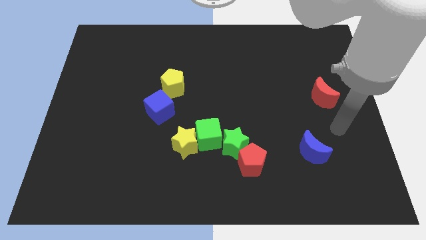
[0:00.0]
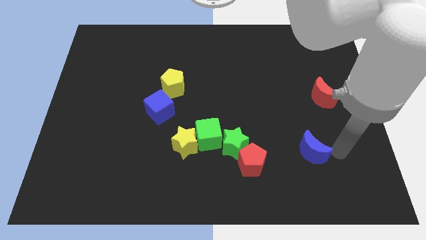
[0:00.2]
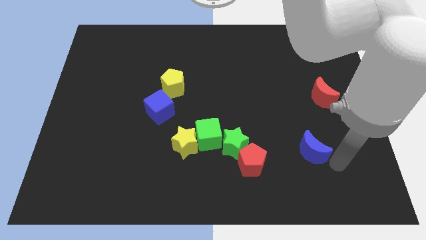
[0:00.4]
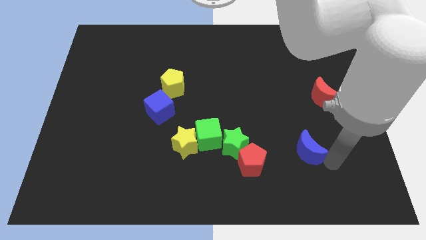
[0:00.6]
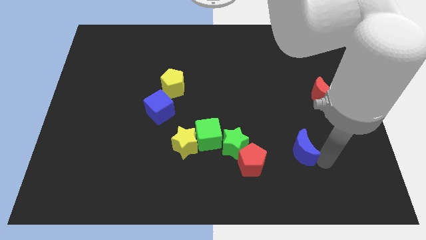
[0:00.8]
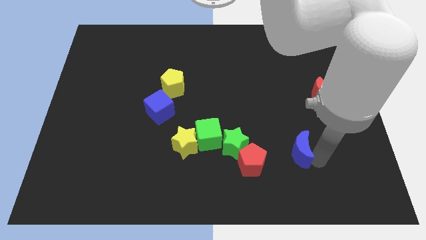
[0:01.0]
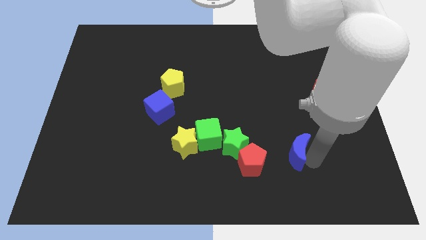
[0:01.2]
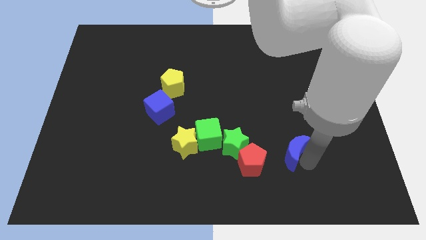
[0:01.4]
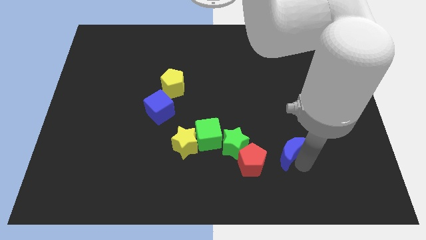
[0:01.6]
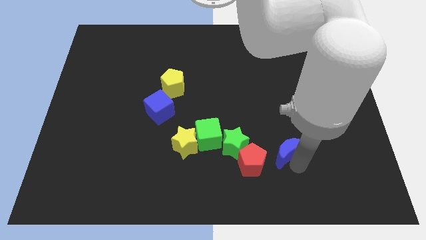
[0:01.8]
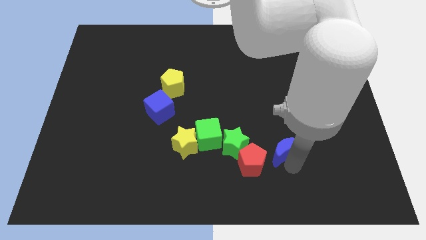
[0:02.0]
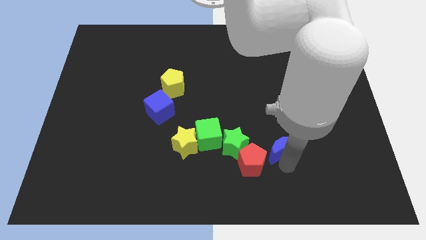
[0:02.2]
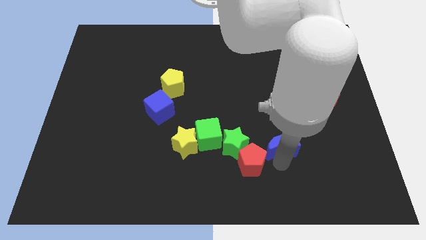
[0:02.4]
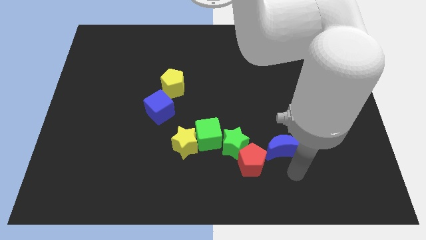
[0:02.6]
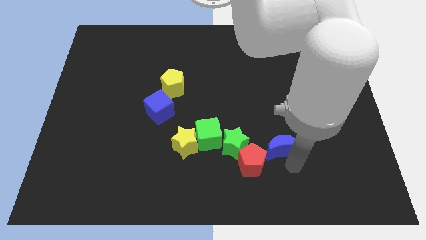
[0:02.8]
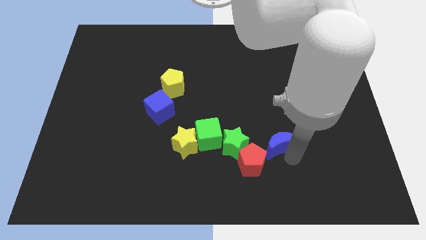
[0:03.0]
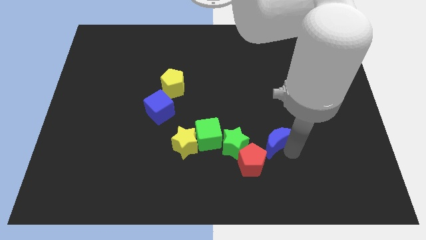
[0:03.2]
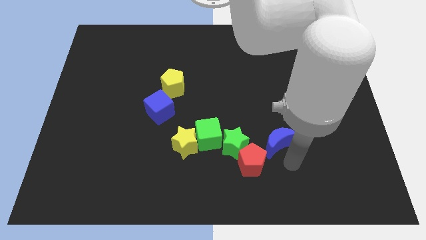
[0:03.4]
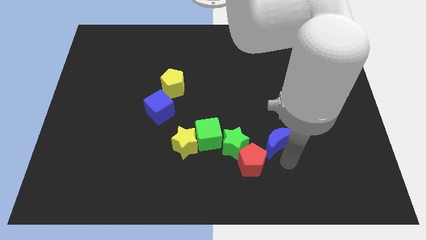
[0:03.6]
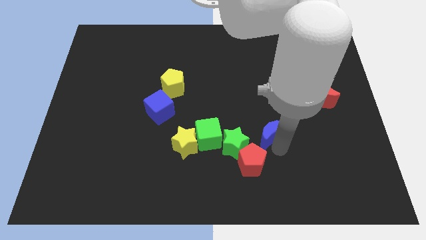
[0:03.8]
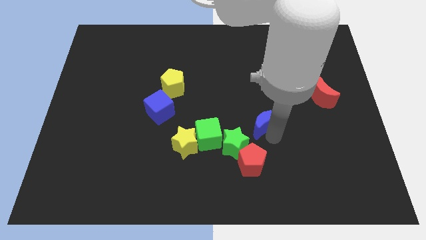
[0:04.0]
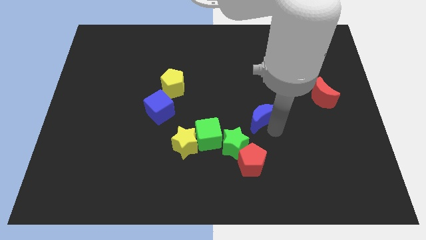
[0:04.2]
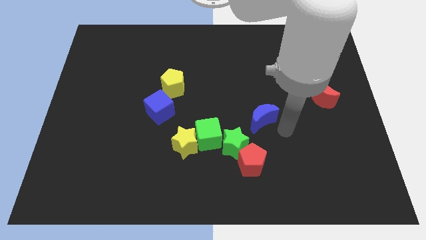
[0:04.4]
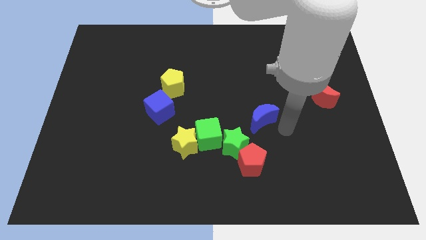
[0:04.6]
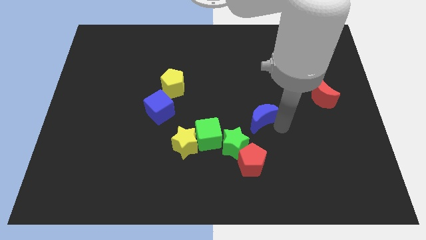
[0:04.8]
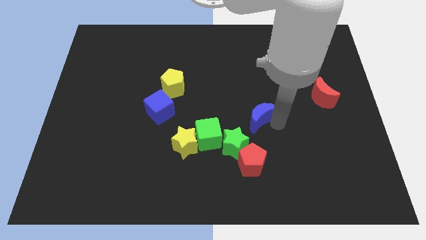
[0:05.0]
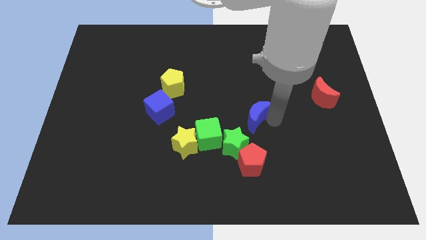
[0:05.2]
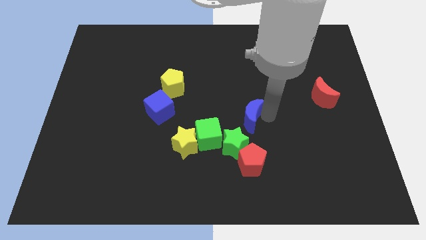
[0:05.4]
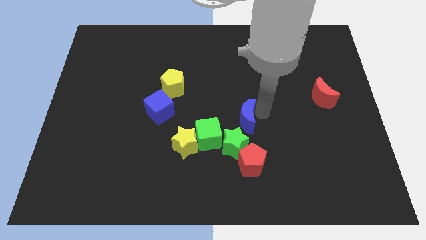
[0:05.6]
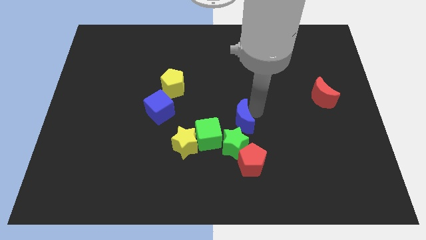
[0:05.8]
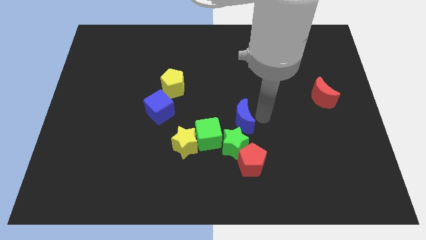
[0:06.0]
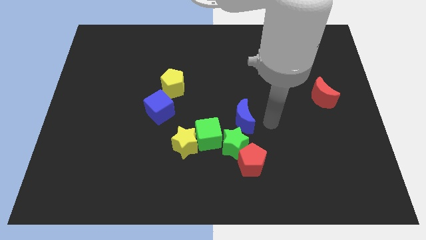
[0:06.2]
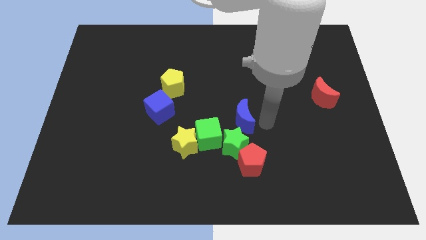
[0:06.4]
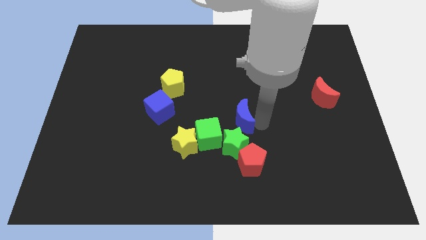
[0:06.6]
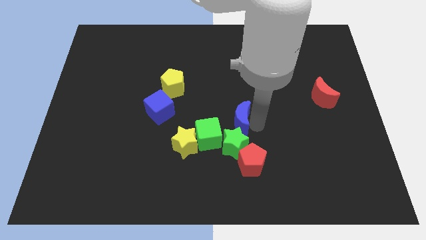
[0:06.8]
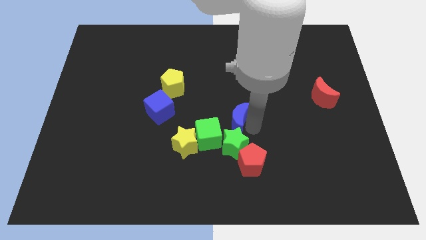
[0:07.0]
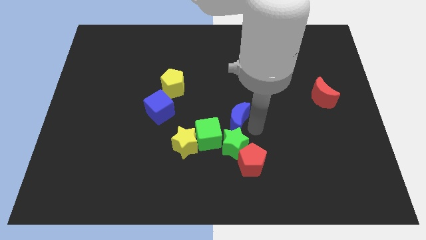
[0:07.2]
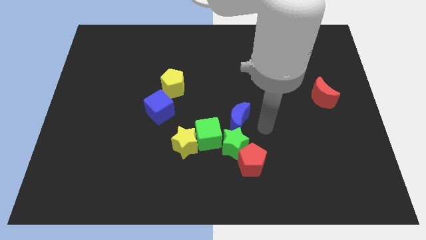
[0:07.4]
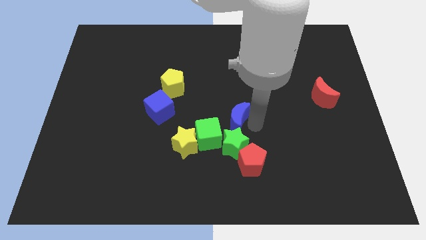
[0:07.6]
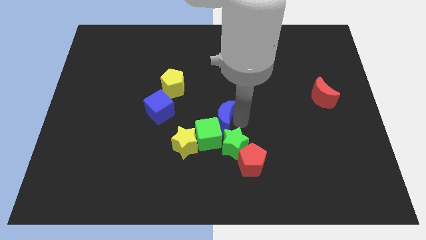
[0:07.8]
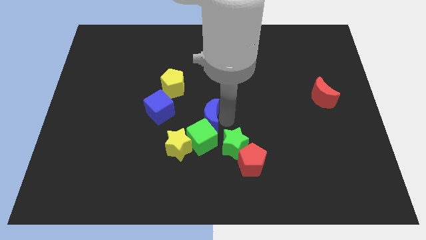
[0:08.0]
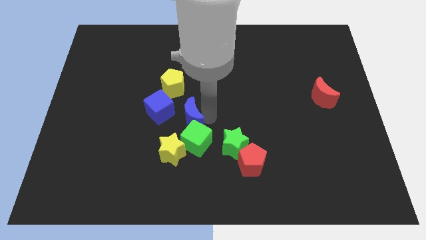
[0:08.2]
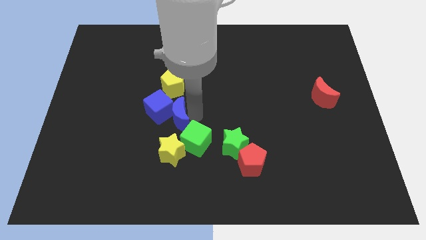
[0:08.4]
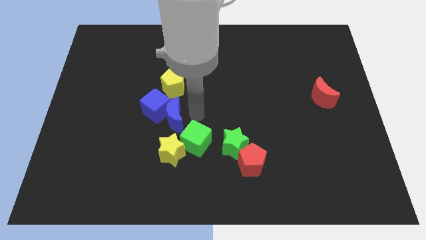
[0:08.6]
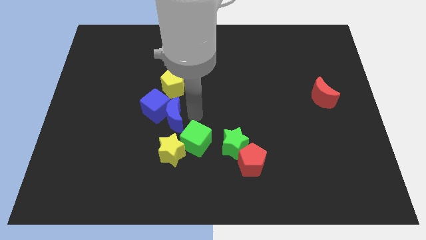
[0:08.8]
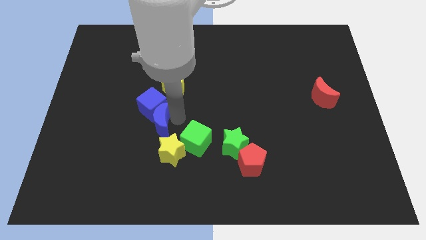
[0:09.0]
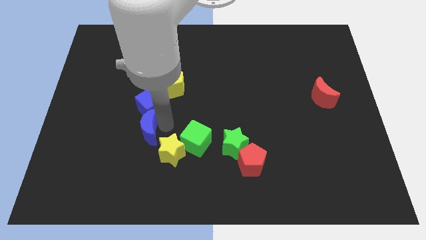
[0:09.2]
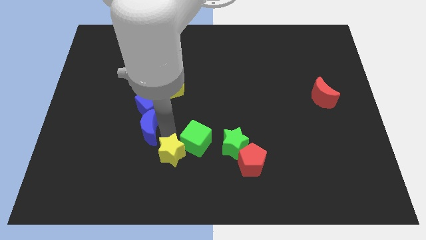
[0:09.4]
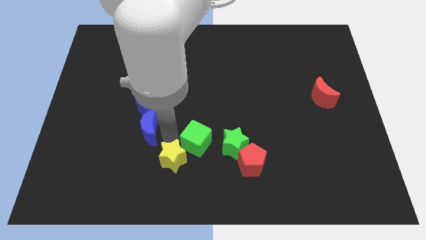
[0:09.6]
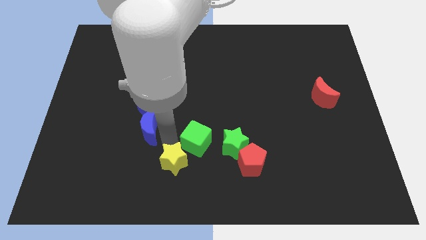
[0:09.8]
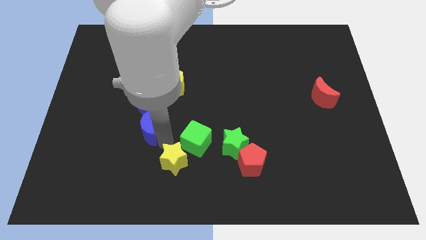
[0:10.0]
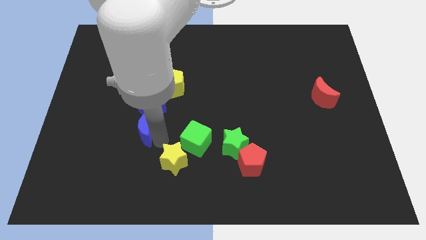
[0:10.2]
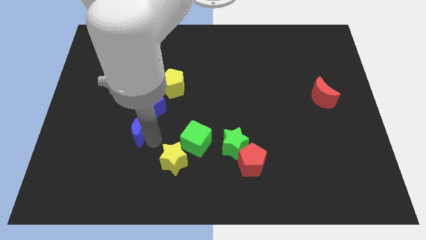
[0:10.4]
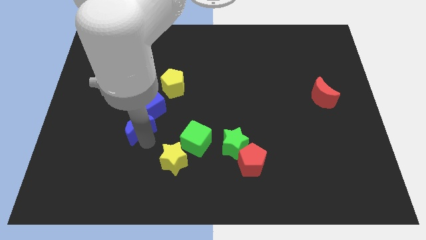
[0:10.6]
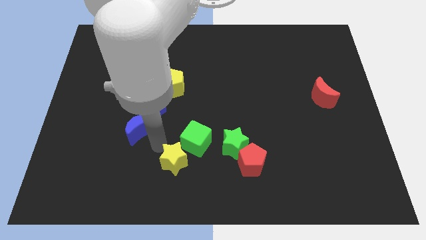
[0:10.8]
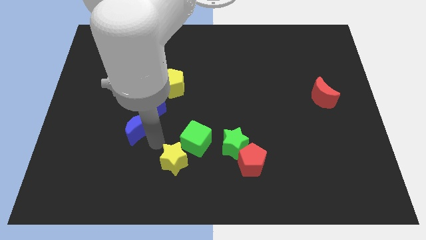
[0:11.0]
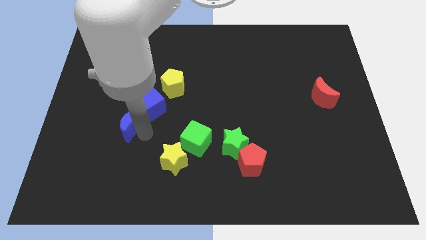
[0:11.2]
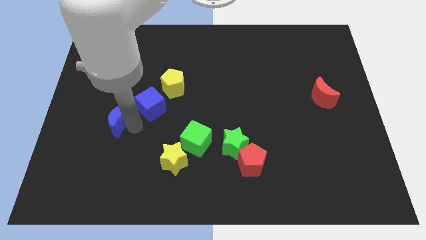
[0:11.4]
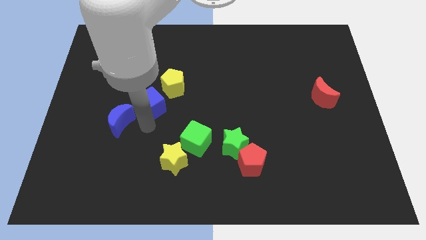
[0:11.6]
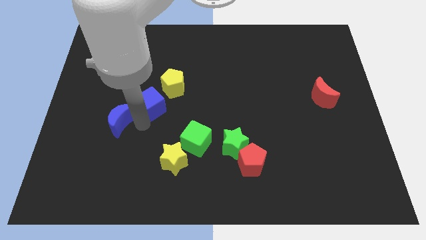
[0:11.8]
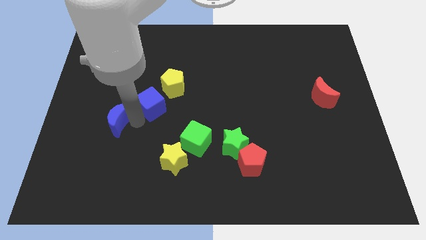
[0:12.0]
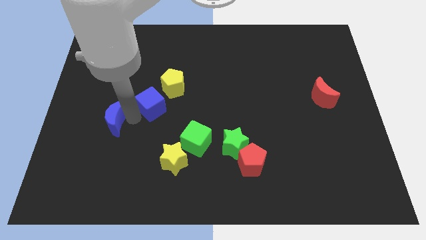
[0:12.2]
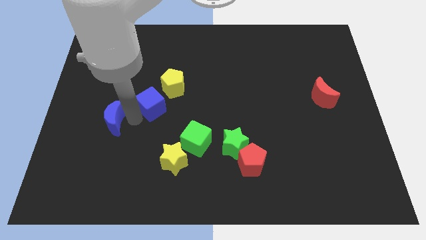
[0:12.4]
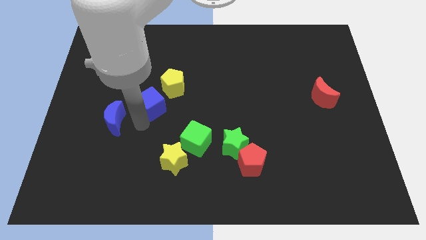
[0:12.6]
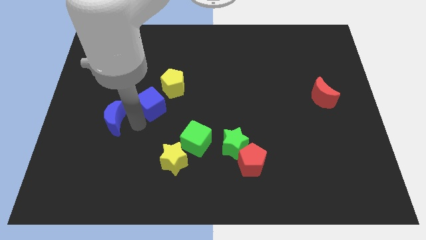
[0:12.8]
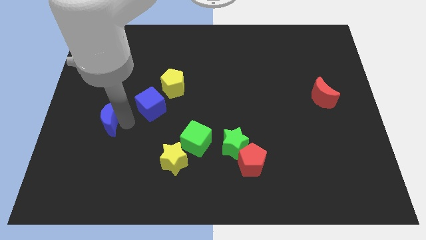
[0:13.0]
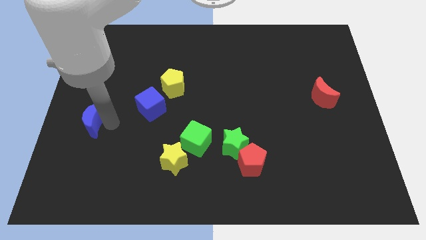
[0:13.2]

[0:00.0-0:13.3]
move the blue moon to the left side of the board

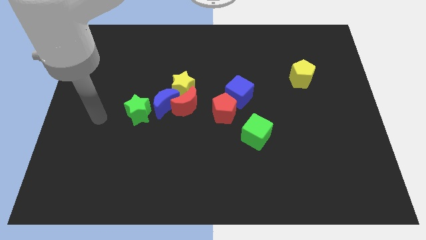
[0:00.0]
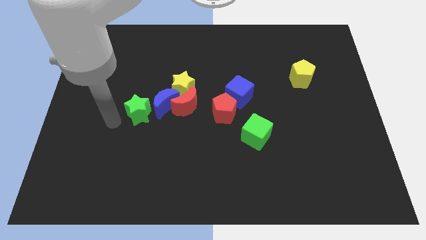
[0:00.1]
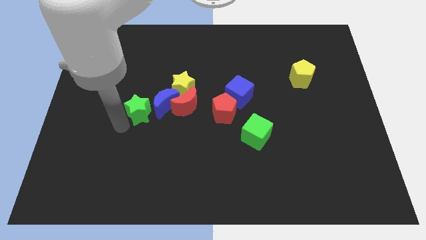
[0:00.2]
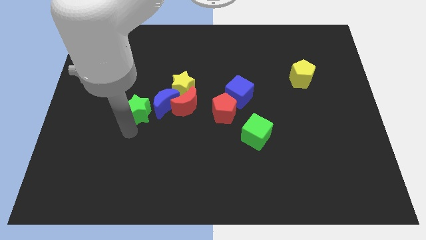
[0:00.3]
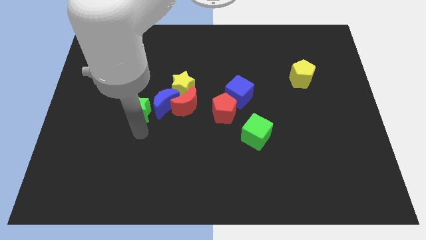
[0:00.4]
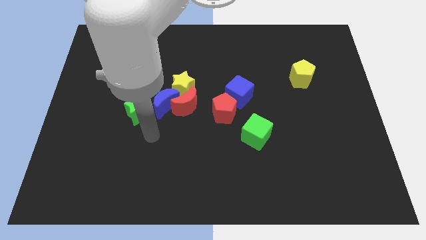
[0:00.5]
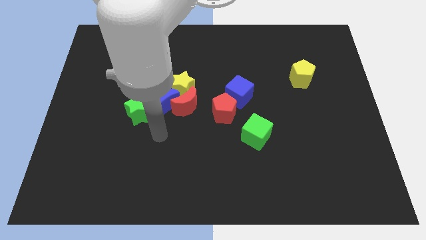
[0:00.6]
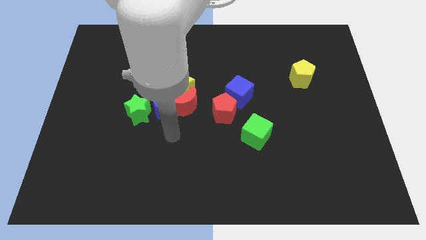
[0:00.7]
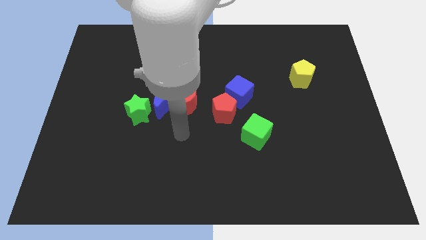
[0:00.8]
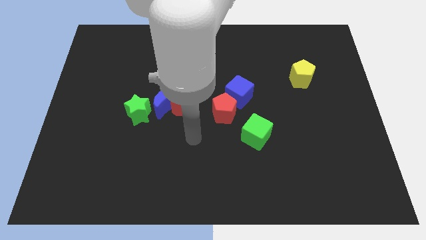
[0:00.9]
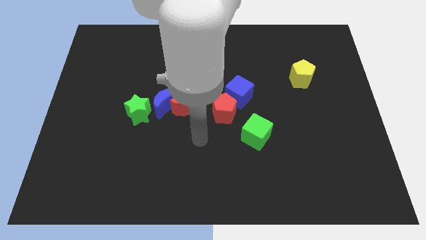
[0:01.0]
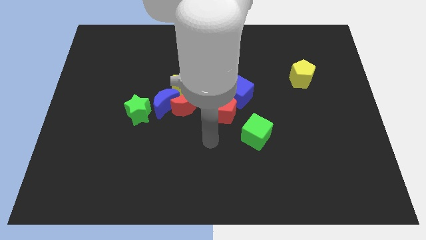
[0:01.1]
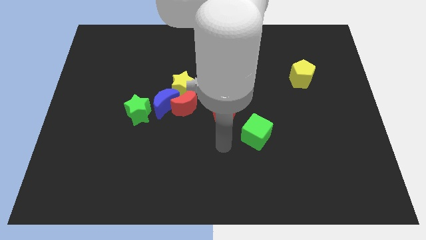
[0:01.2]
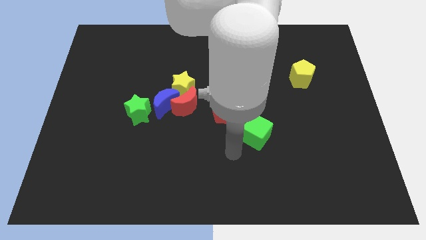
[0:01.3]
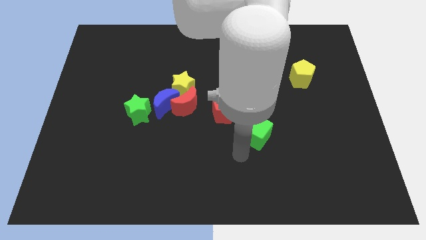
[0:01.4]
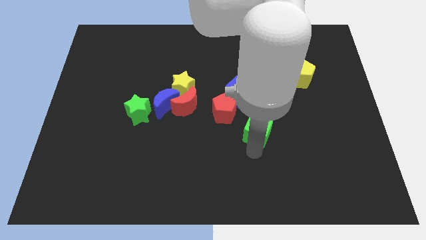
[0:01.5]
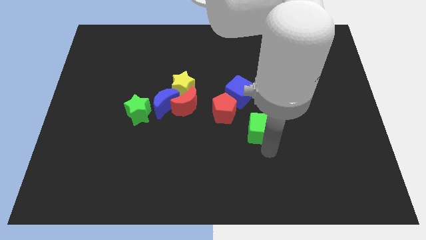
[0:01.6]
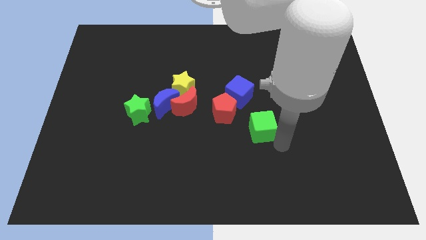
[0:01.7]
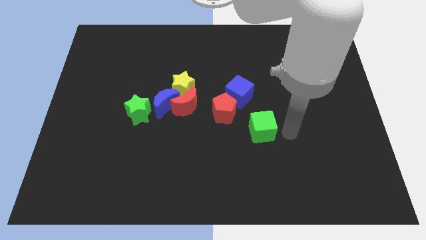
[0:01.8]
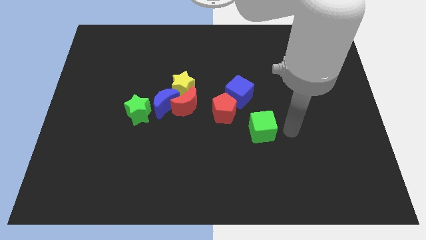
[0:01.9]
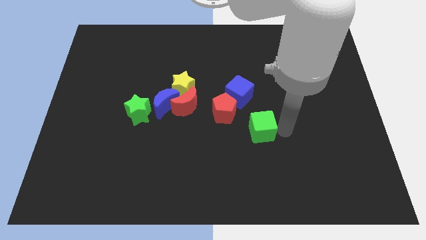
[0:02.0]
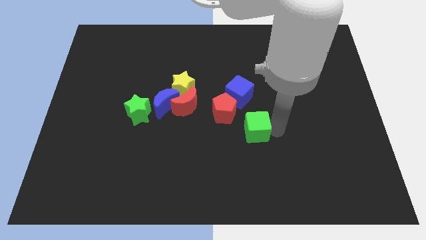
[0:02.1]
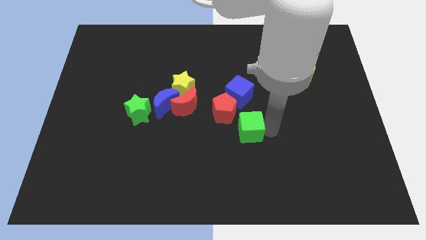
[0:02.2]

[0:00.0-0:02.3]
put the green cube to the center
